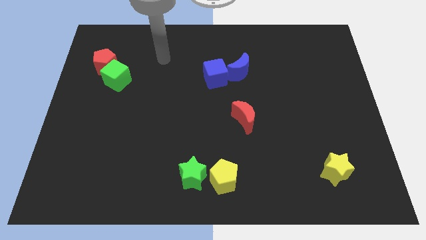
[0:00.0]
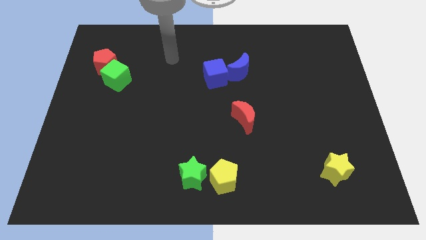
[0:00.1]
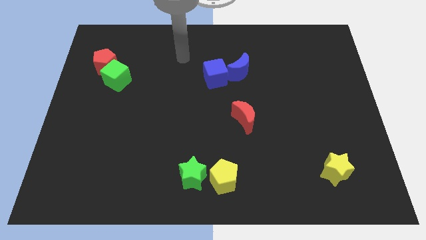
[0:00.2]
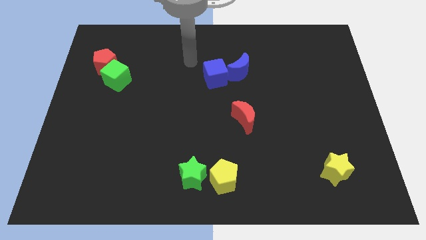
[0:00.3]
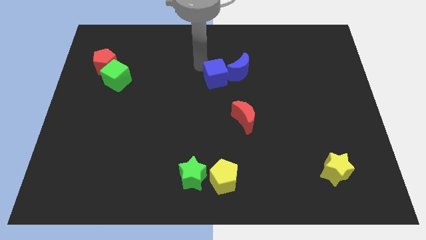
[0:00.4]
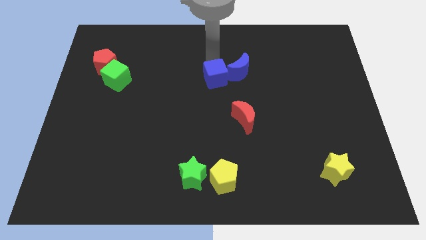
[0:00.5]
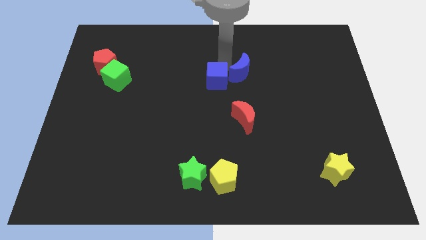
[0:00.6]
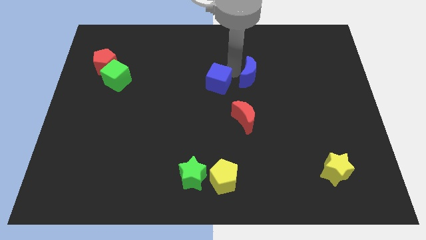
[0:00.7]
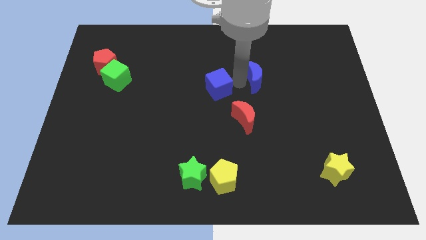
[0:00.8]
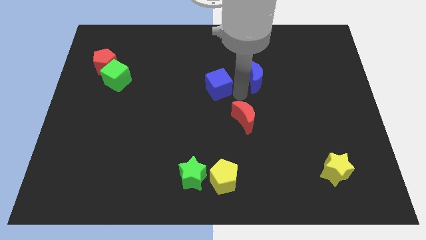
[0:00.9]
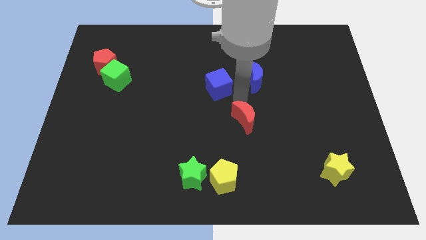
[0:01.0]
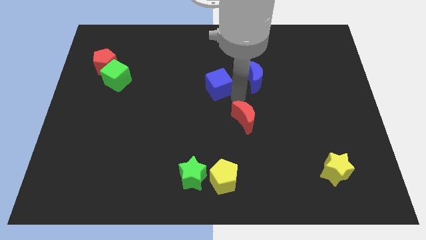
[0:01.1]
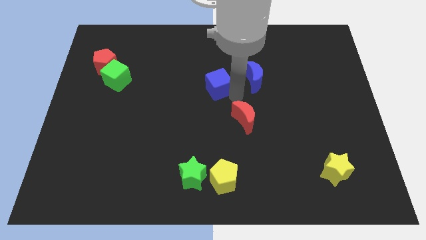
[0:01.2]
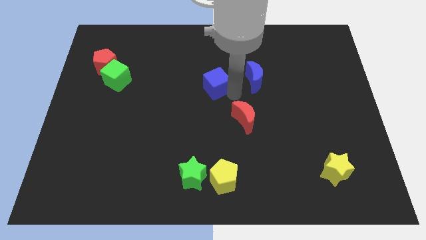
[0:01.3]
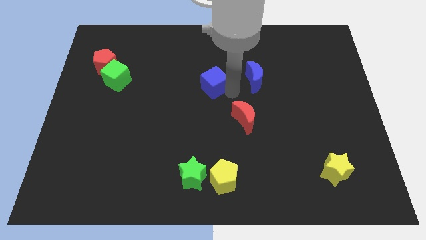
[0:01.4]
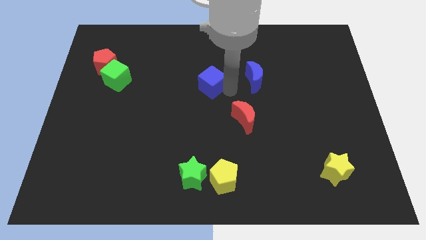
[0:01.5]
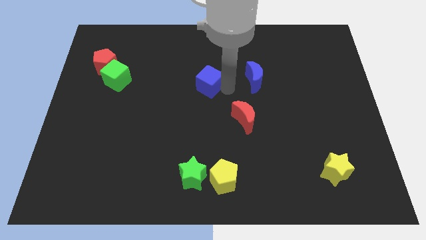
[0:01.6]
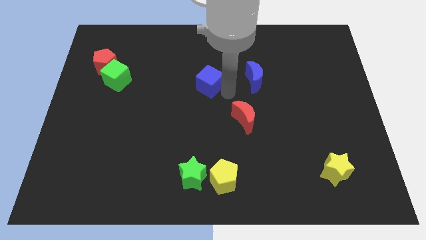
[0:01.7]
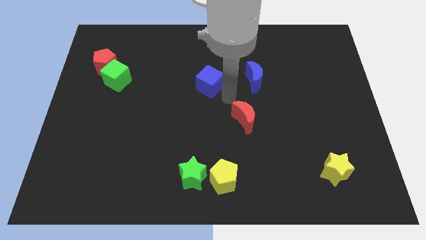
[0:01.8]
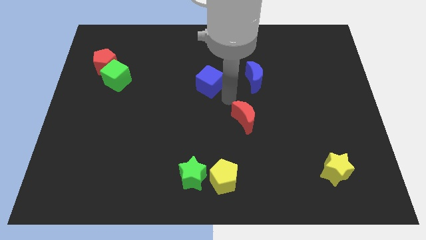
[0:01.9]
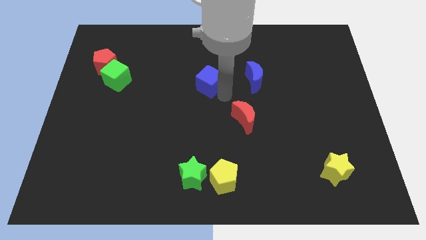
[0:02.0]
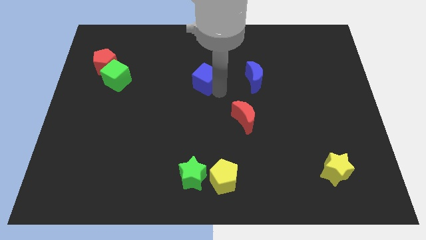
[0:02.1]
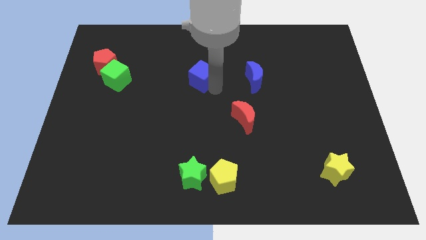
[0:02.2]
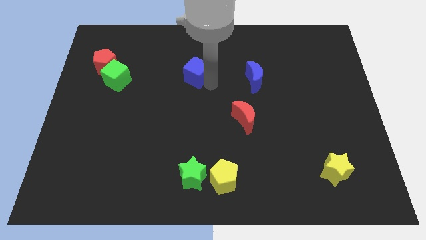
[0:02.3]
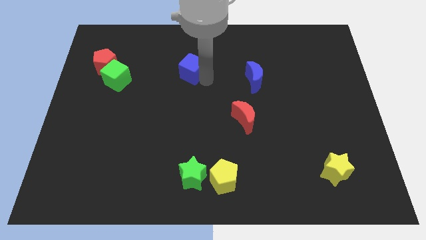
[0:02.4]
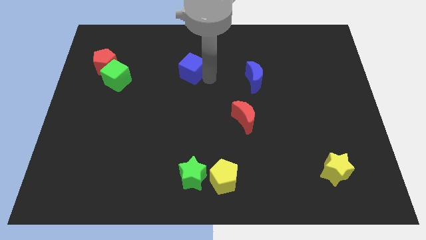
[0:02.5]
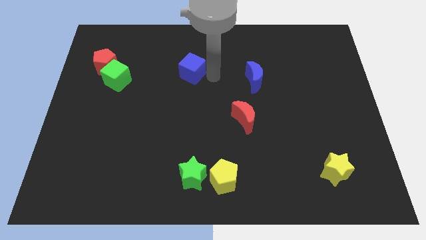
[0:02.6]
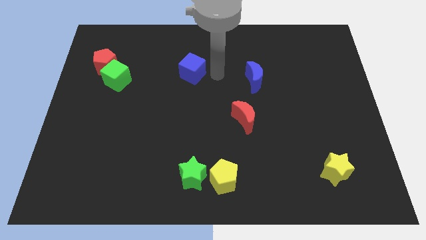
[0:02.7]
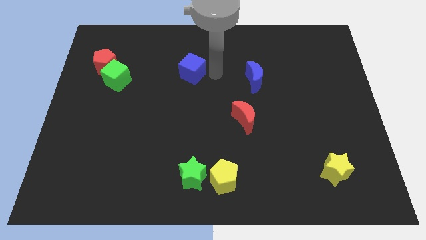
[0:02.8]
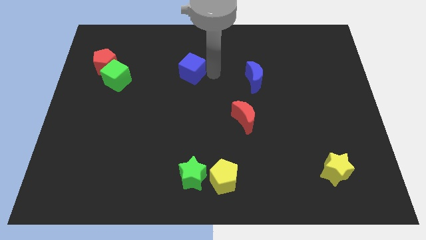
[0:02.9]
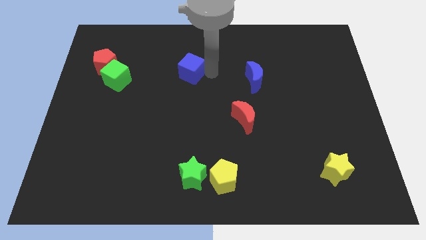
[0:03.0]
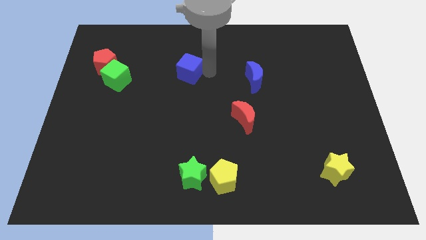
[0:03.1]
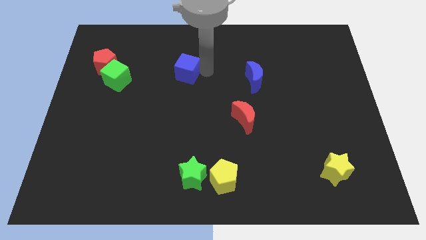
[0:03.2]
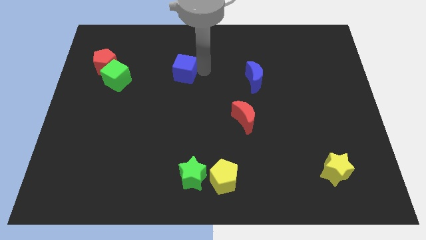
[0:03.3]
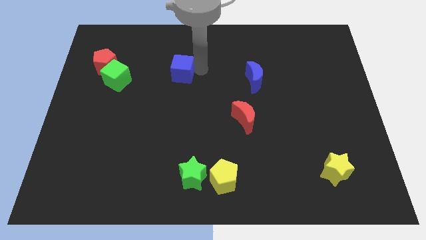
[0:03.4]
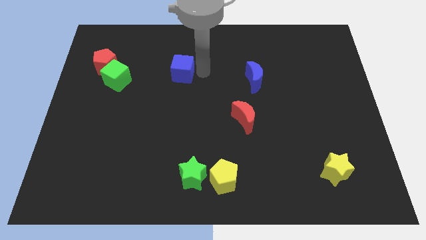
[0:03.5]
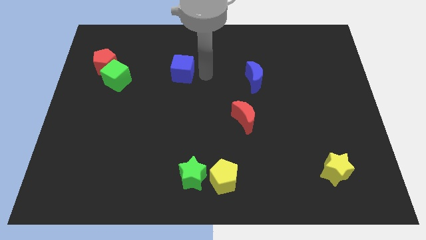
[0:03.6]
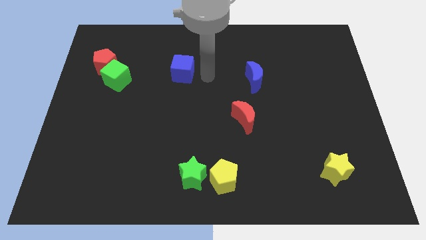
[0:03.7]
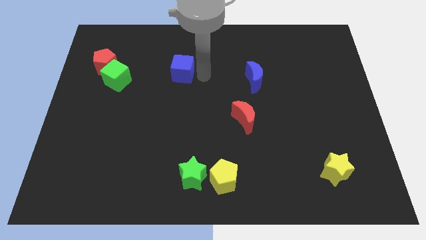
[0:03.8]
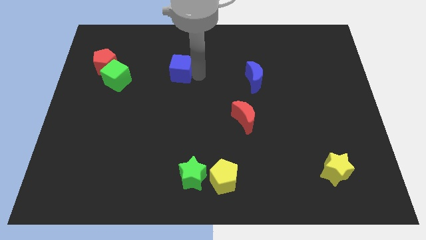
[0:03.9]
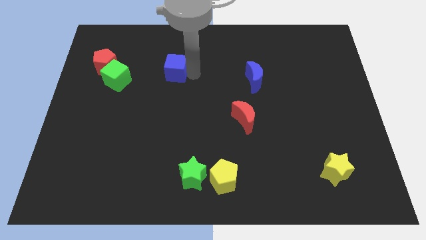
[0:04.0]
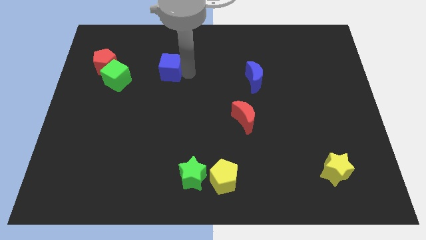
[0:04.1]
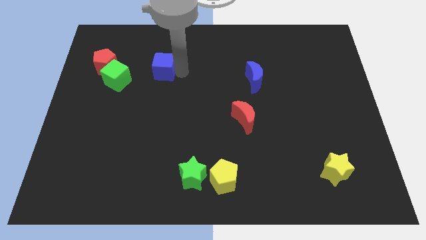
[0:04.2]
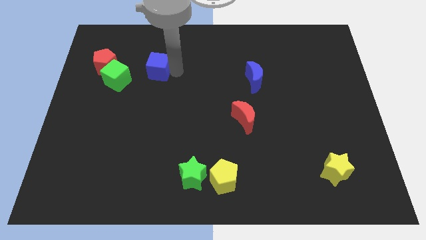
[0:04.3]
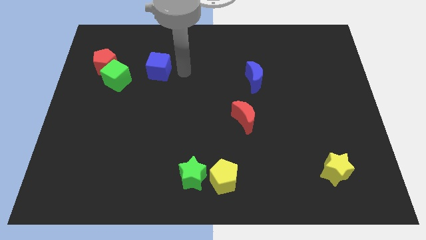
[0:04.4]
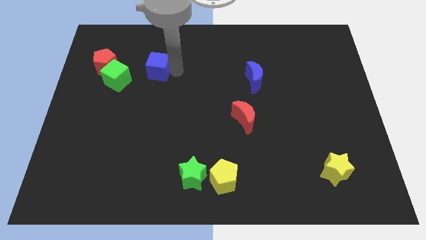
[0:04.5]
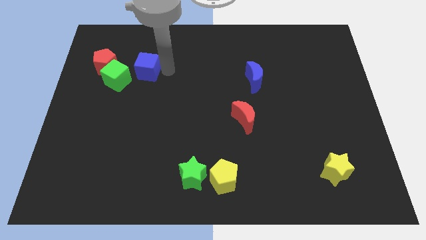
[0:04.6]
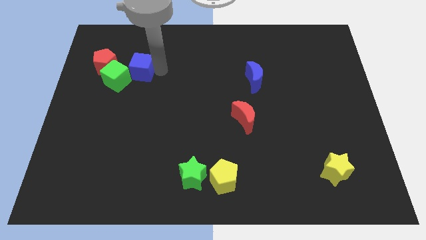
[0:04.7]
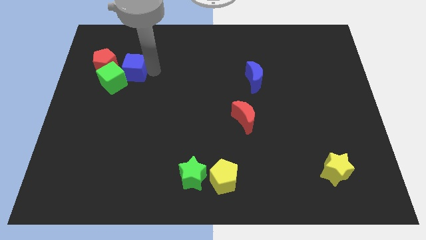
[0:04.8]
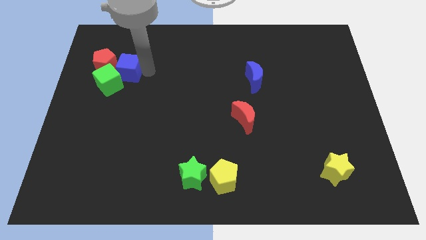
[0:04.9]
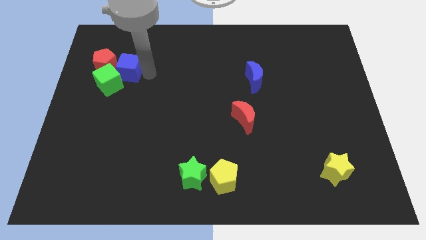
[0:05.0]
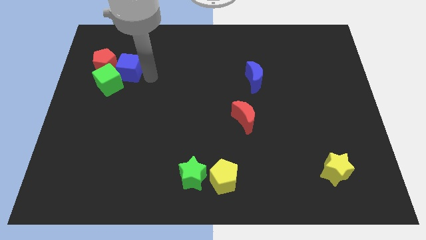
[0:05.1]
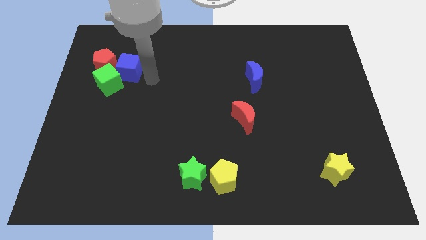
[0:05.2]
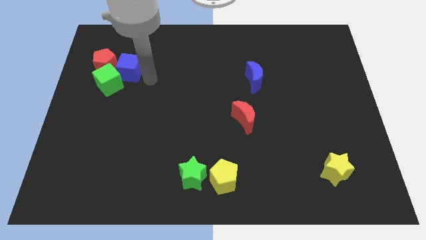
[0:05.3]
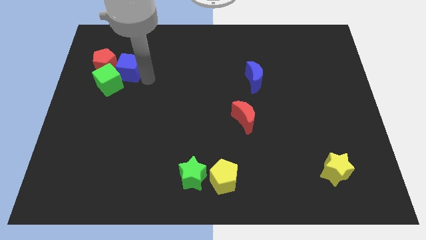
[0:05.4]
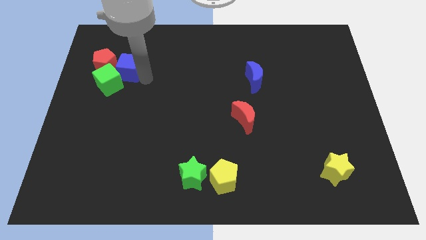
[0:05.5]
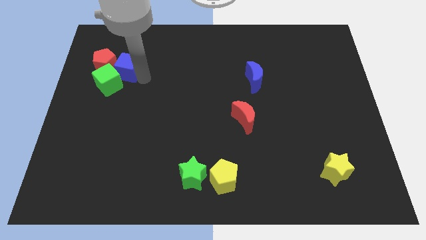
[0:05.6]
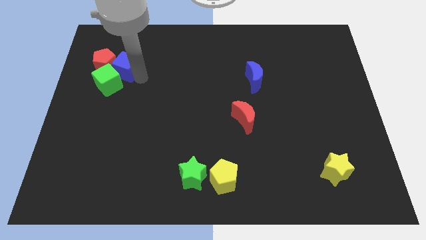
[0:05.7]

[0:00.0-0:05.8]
push the blue cube to the red pentagon

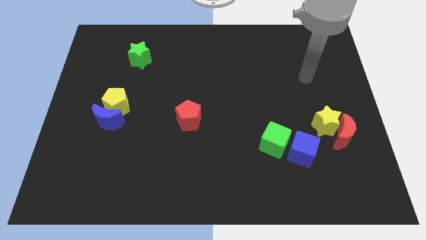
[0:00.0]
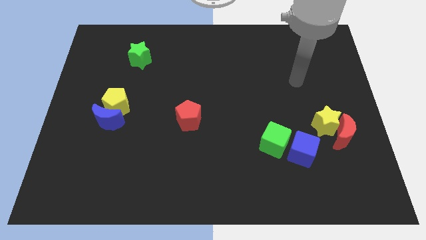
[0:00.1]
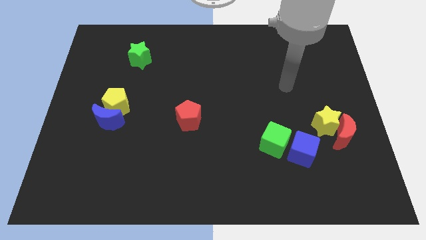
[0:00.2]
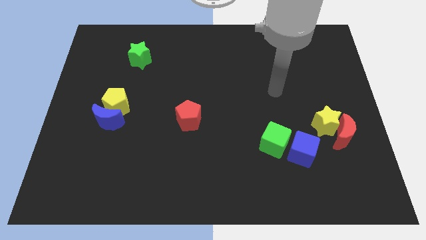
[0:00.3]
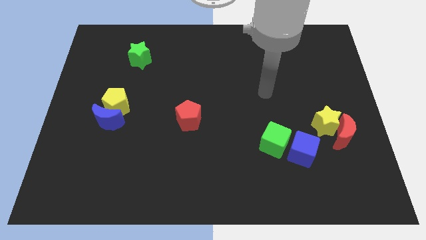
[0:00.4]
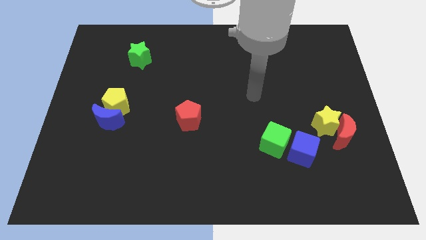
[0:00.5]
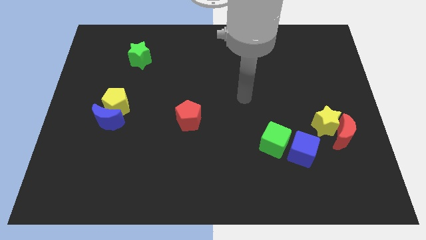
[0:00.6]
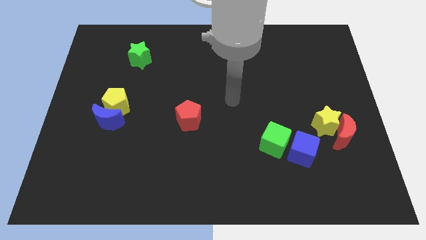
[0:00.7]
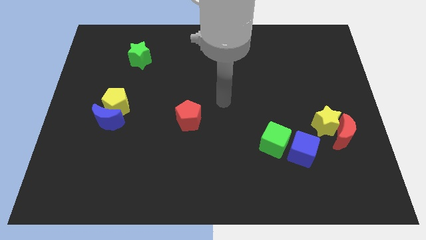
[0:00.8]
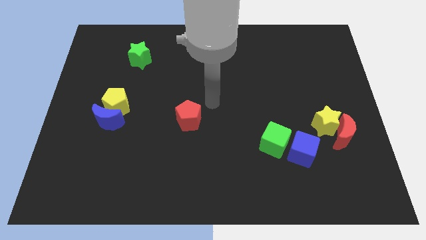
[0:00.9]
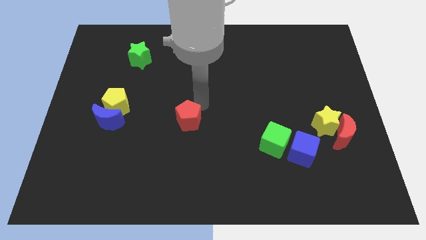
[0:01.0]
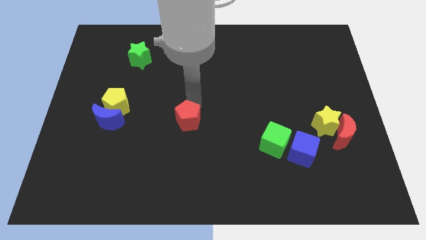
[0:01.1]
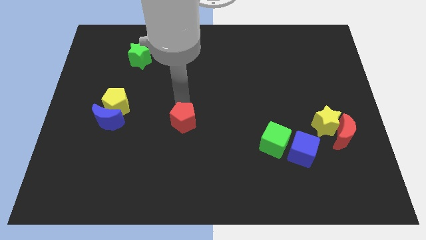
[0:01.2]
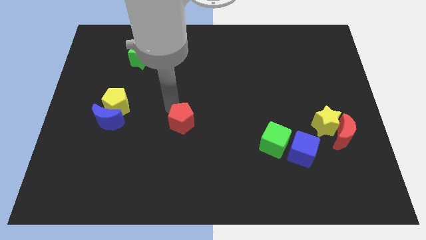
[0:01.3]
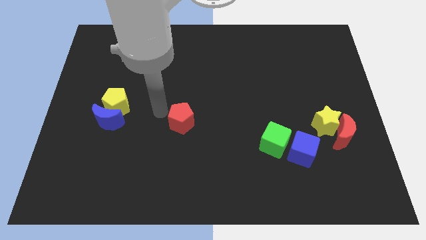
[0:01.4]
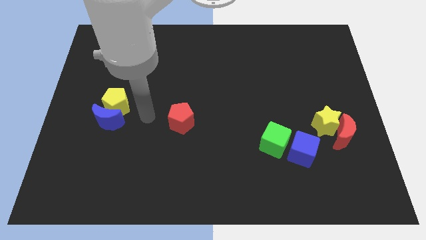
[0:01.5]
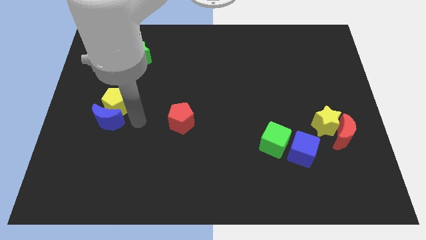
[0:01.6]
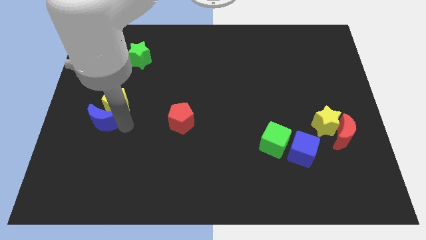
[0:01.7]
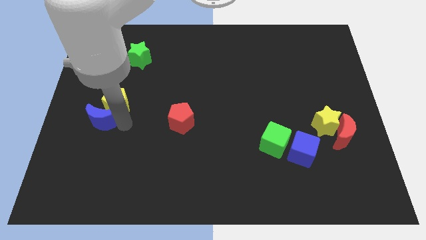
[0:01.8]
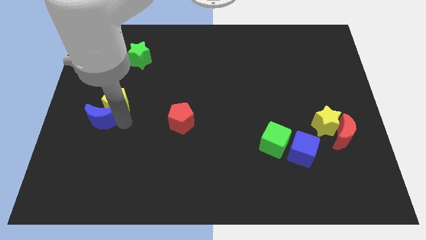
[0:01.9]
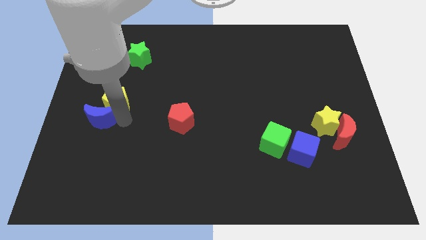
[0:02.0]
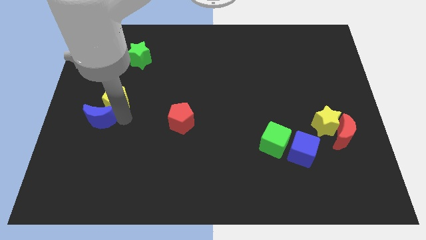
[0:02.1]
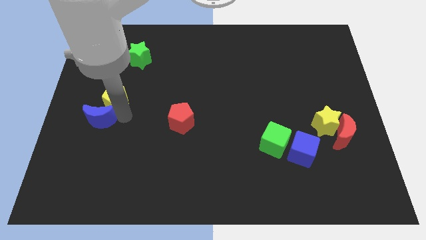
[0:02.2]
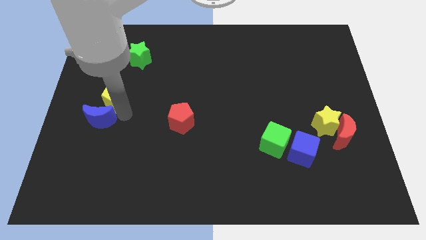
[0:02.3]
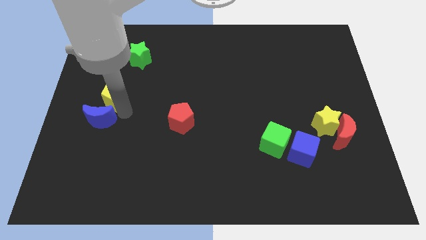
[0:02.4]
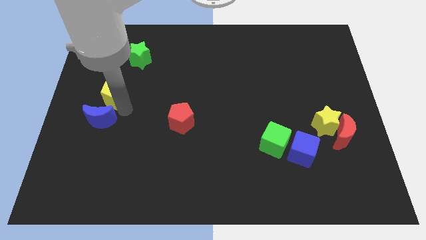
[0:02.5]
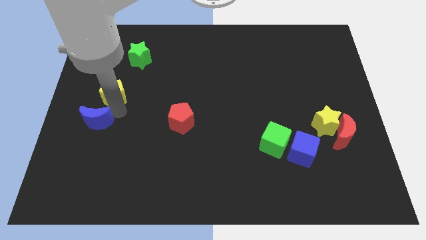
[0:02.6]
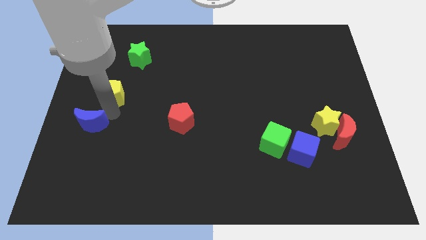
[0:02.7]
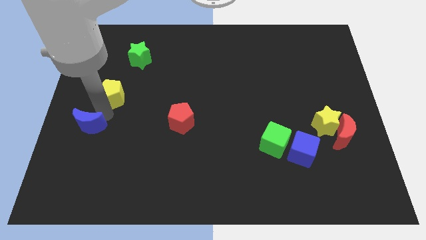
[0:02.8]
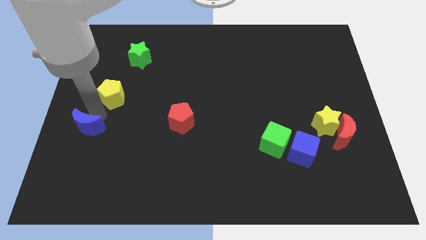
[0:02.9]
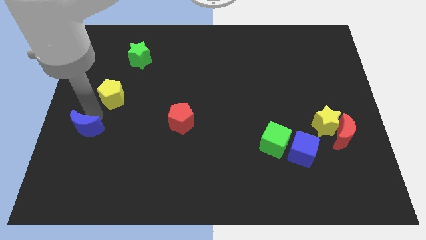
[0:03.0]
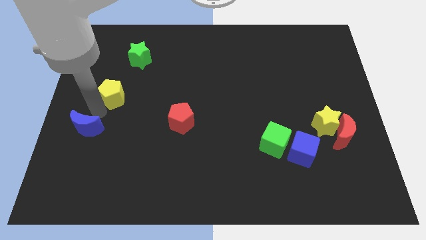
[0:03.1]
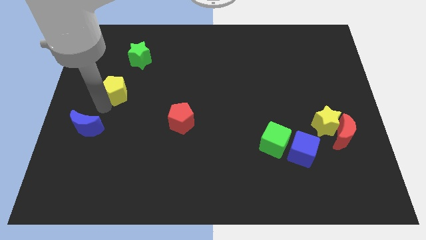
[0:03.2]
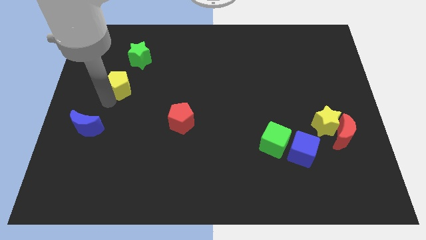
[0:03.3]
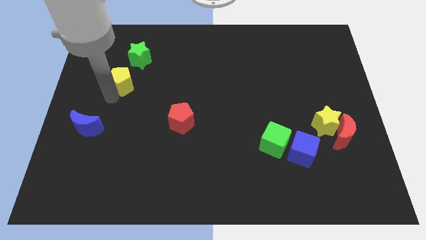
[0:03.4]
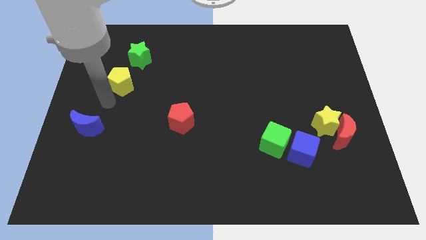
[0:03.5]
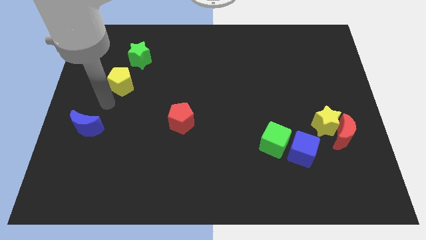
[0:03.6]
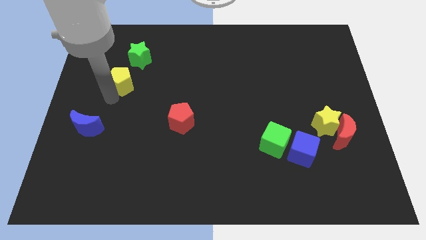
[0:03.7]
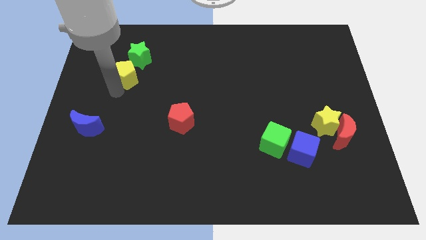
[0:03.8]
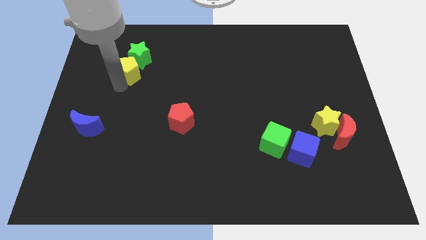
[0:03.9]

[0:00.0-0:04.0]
push the yellow pentagon close to the green star
